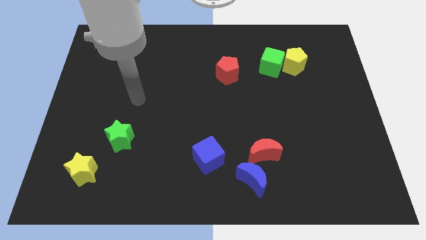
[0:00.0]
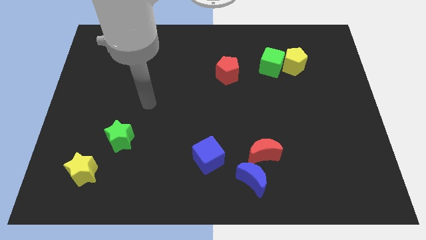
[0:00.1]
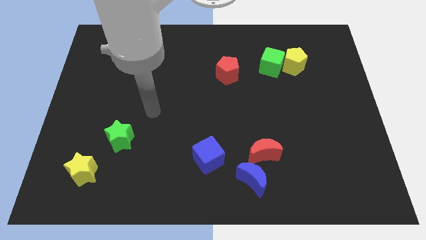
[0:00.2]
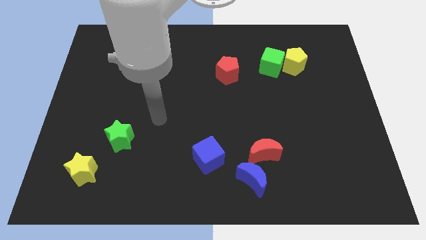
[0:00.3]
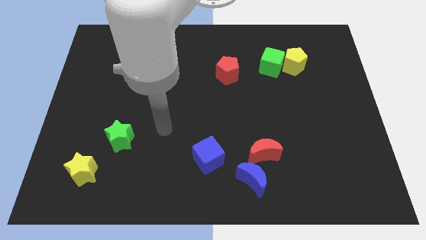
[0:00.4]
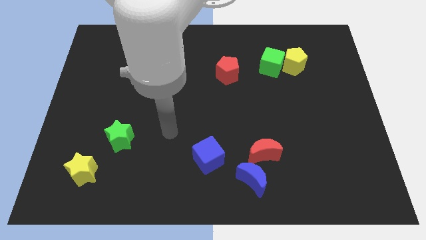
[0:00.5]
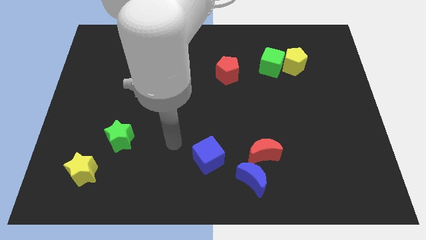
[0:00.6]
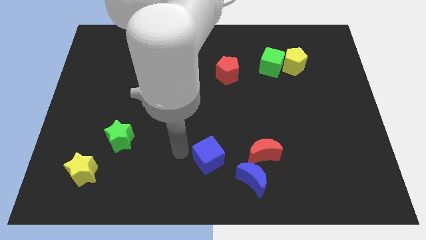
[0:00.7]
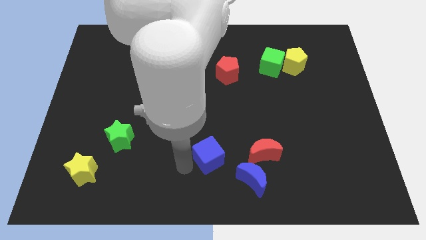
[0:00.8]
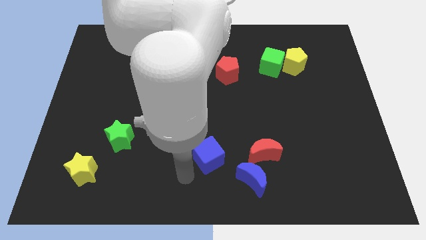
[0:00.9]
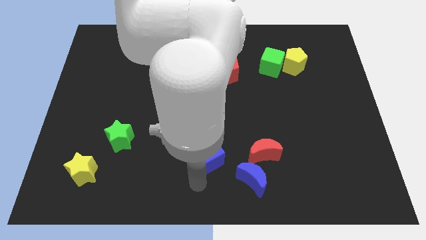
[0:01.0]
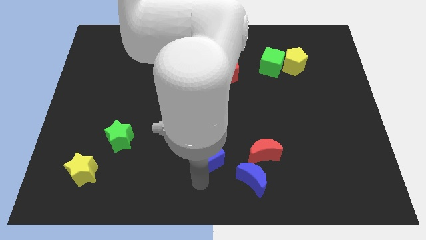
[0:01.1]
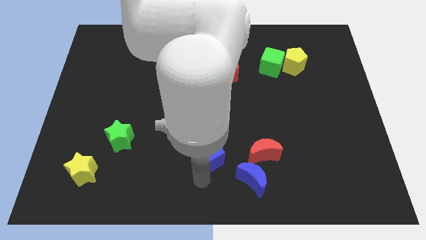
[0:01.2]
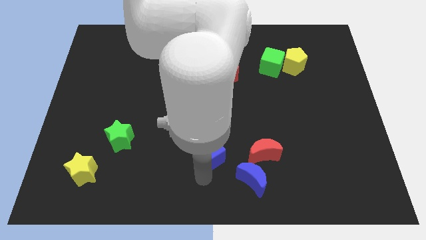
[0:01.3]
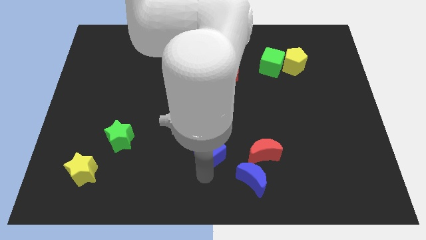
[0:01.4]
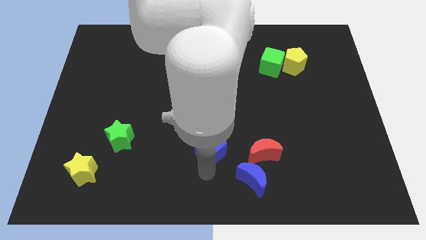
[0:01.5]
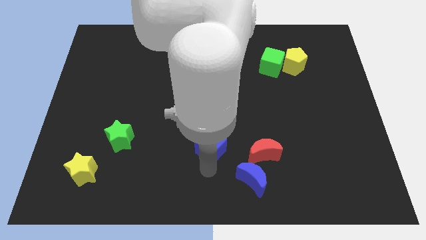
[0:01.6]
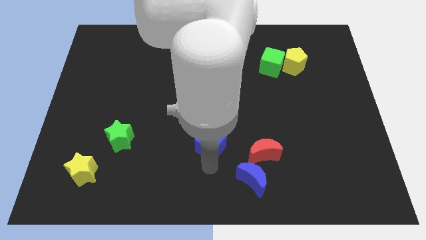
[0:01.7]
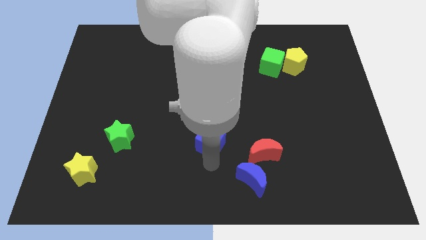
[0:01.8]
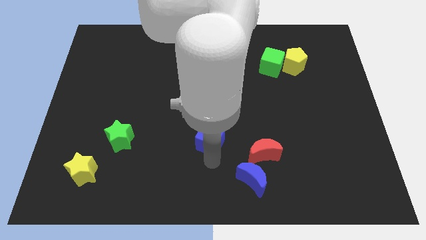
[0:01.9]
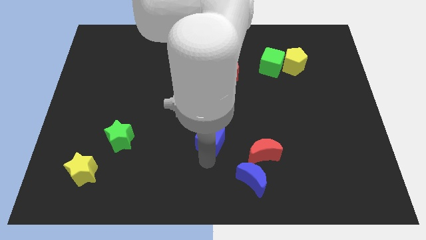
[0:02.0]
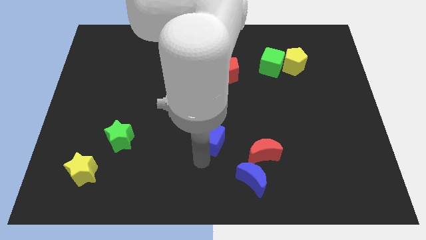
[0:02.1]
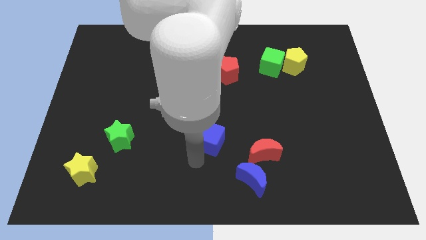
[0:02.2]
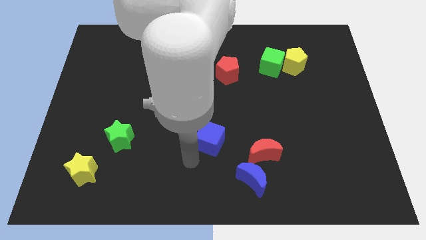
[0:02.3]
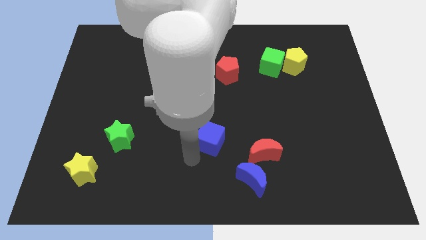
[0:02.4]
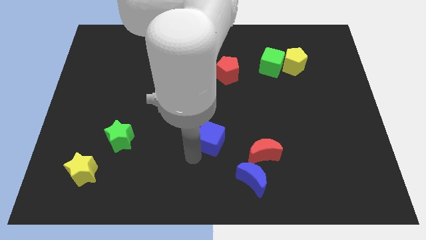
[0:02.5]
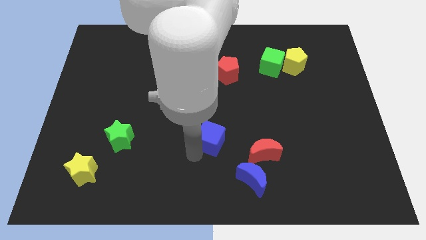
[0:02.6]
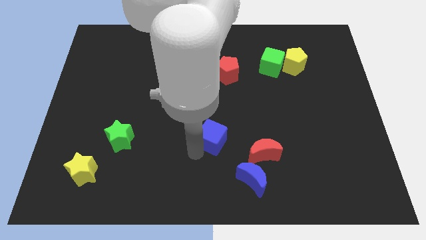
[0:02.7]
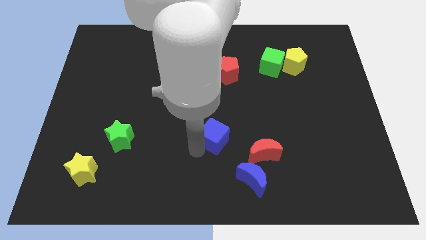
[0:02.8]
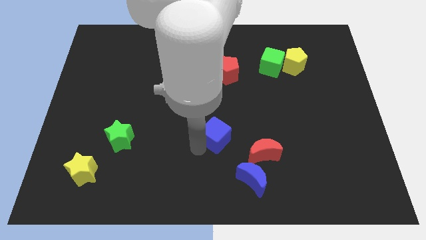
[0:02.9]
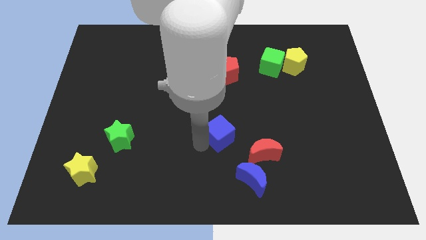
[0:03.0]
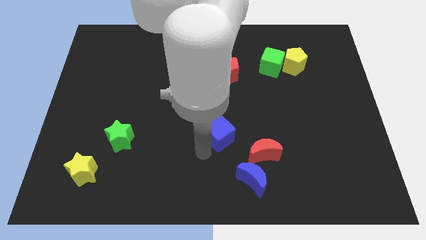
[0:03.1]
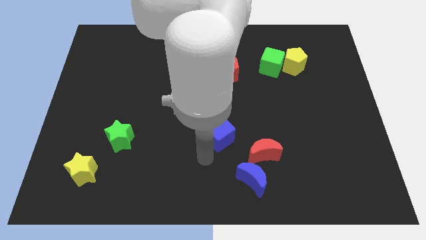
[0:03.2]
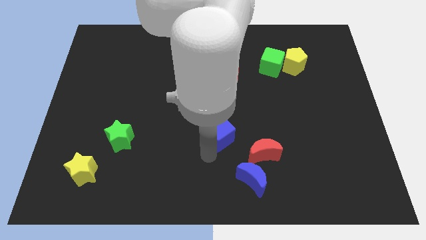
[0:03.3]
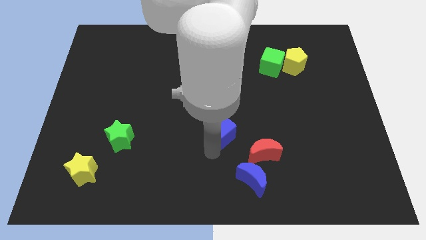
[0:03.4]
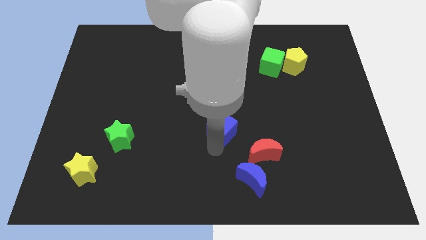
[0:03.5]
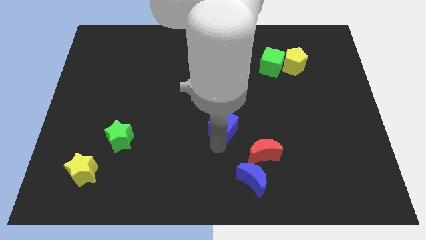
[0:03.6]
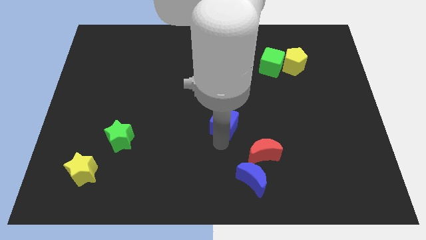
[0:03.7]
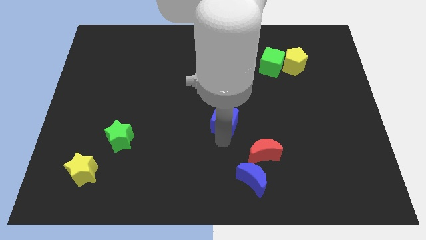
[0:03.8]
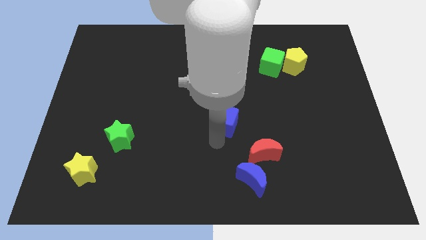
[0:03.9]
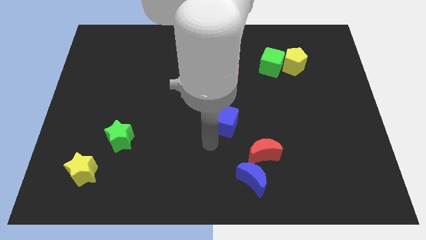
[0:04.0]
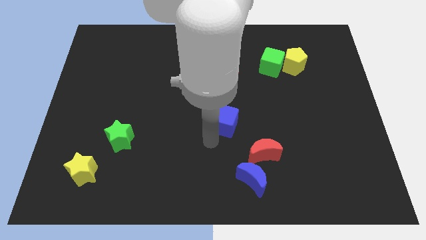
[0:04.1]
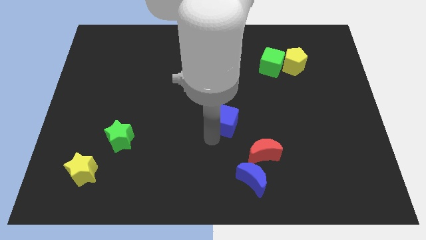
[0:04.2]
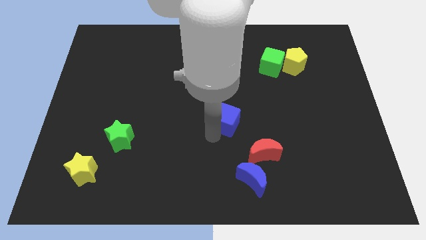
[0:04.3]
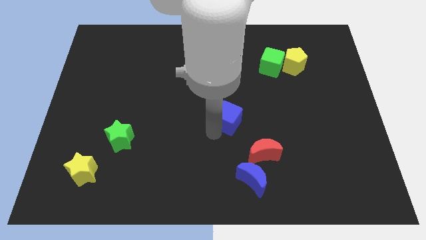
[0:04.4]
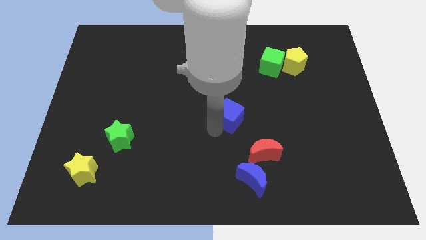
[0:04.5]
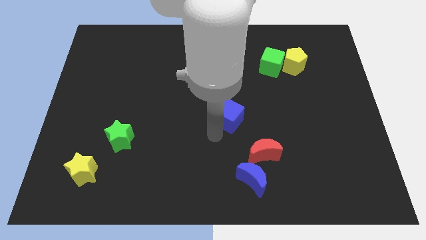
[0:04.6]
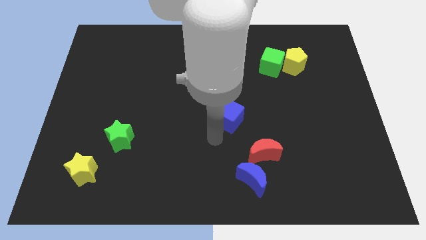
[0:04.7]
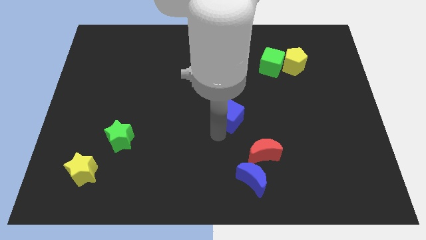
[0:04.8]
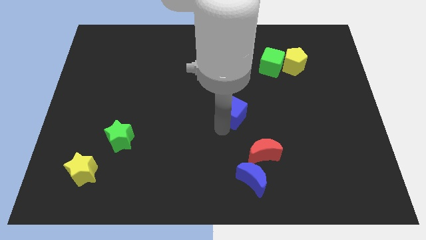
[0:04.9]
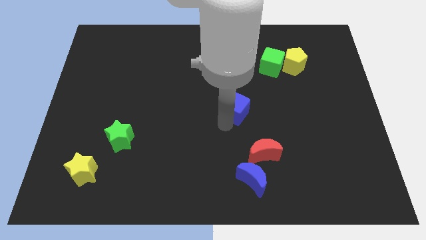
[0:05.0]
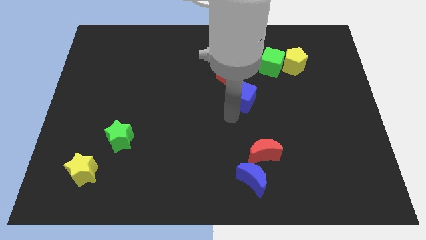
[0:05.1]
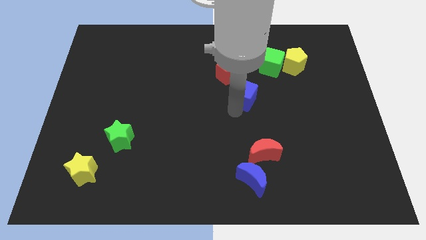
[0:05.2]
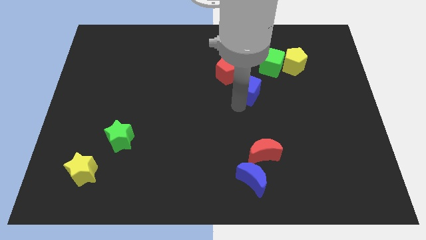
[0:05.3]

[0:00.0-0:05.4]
push the blue cube to the bottom left side of the green cube
